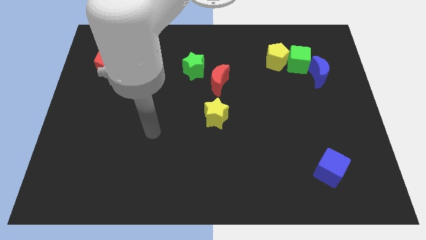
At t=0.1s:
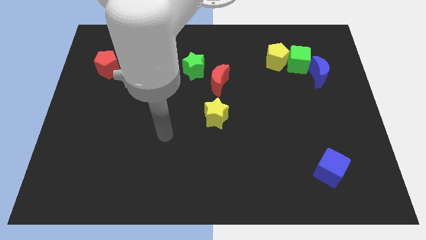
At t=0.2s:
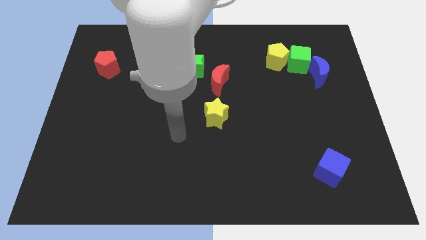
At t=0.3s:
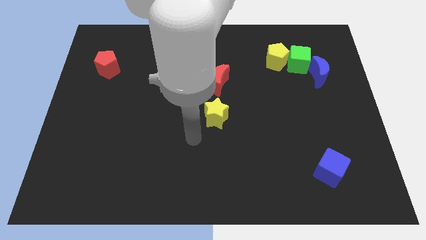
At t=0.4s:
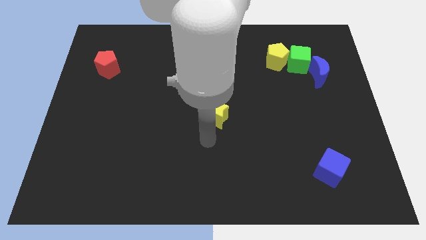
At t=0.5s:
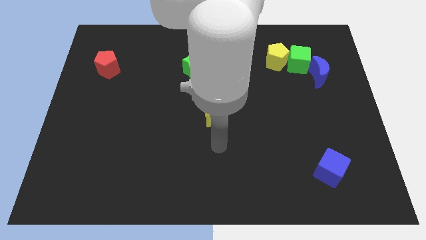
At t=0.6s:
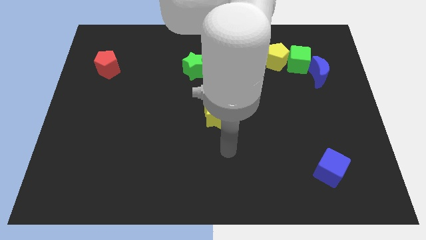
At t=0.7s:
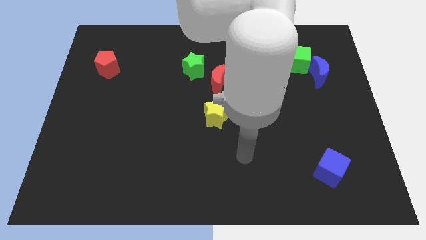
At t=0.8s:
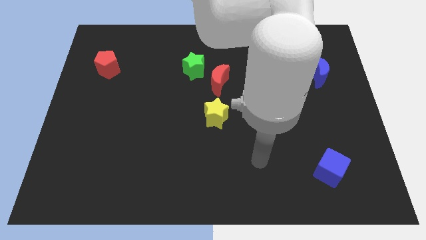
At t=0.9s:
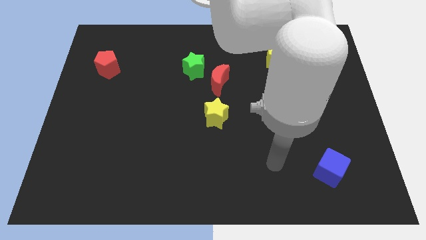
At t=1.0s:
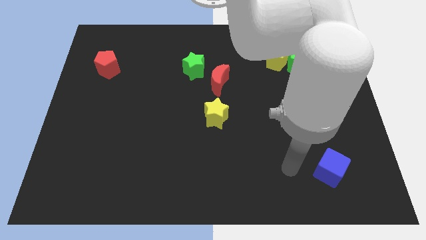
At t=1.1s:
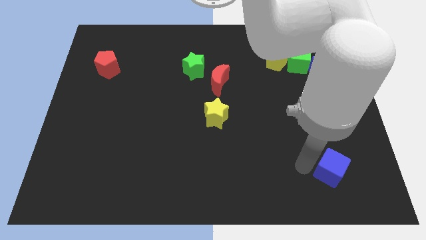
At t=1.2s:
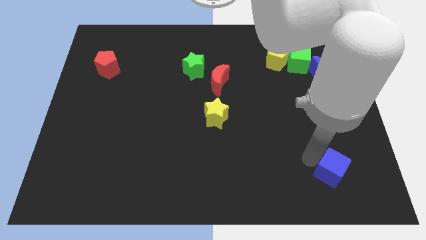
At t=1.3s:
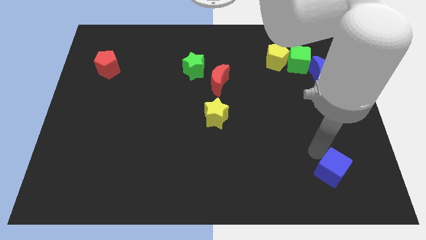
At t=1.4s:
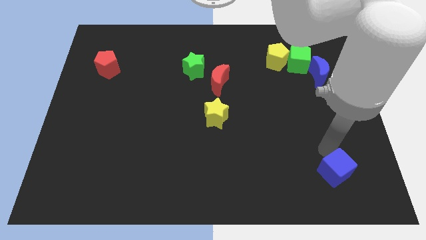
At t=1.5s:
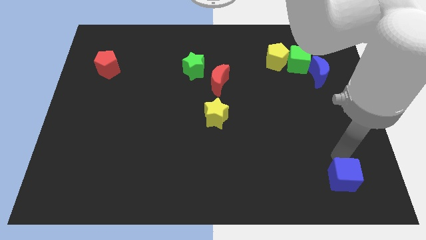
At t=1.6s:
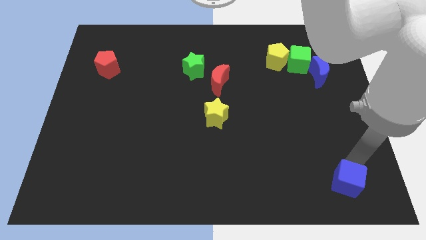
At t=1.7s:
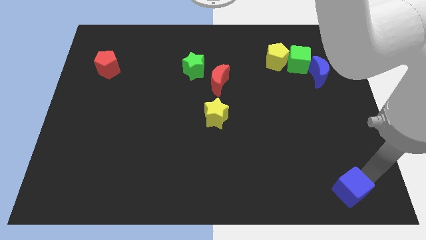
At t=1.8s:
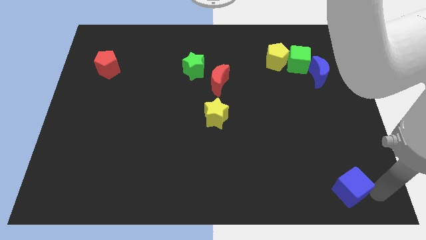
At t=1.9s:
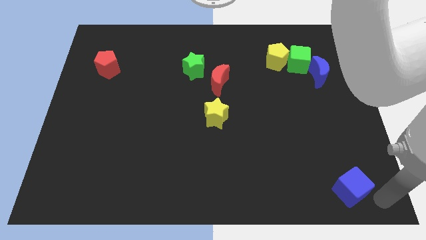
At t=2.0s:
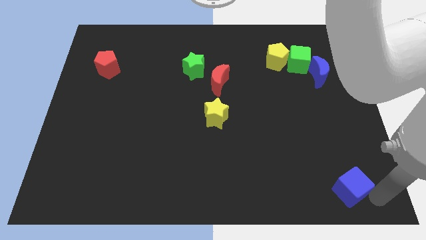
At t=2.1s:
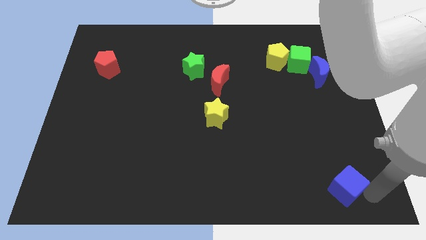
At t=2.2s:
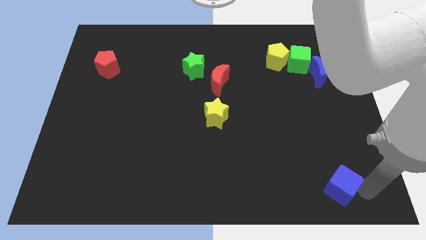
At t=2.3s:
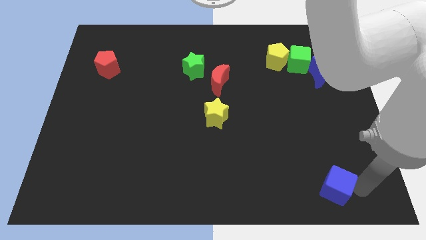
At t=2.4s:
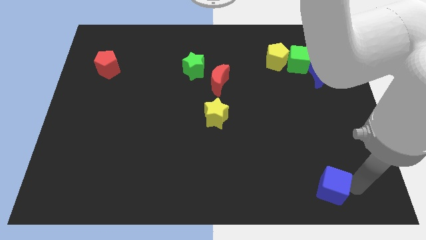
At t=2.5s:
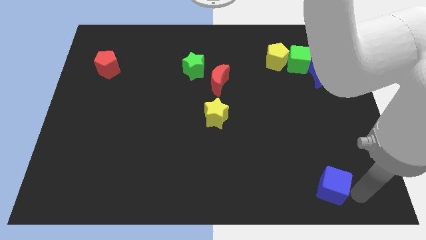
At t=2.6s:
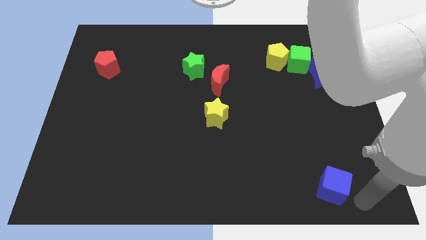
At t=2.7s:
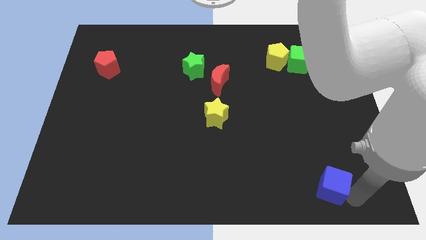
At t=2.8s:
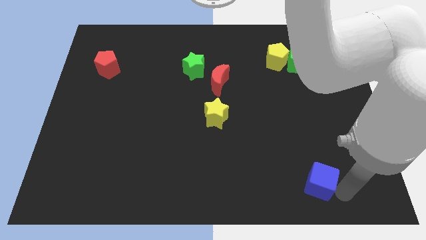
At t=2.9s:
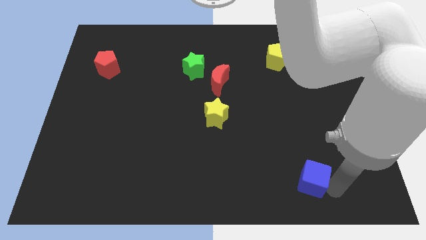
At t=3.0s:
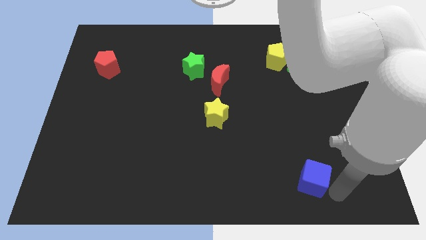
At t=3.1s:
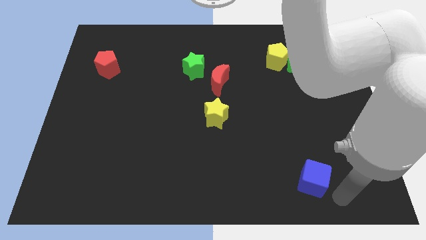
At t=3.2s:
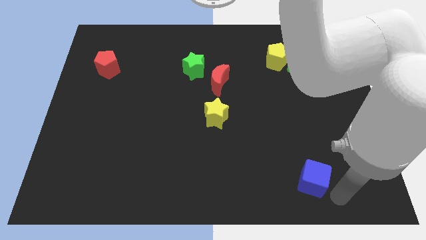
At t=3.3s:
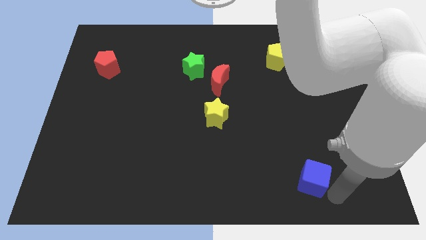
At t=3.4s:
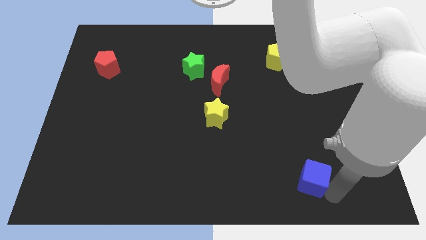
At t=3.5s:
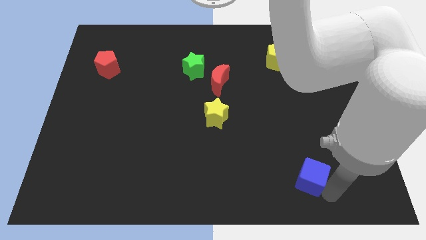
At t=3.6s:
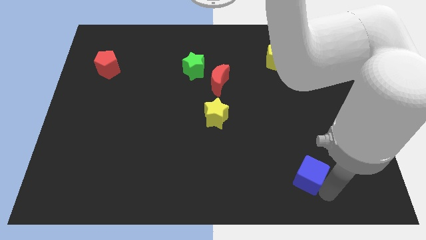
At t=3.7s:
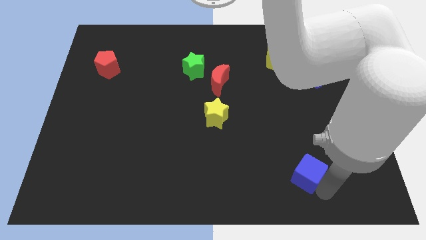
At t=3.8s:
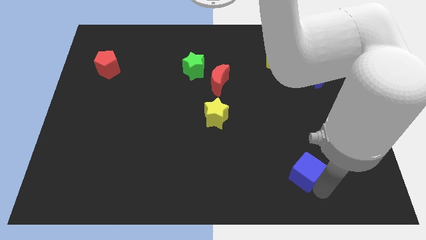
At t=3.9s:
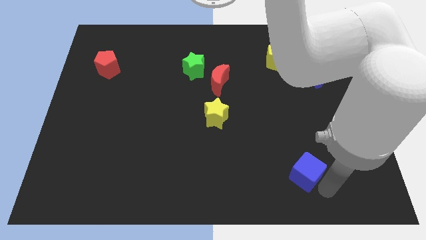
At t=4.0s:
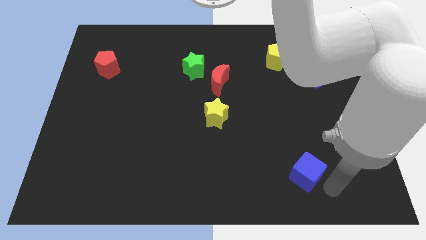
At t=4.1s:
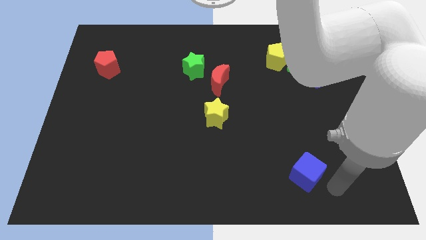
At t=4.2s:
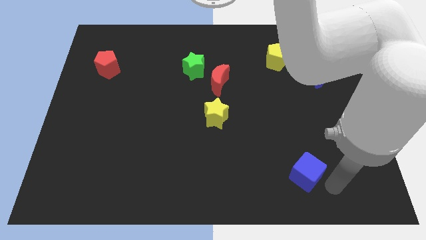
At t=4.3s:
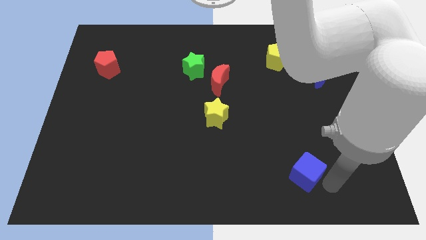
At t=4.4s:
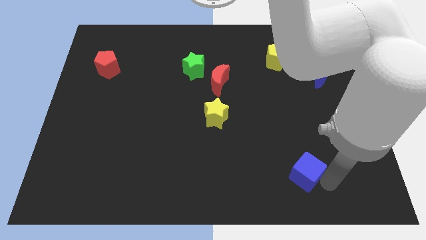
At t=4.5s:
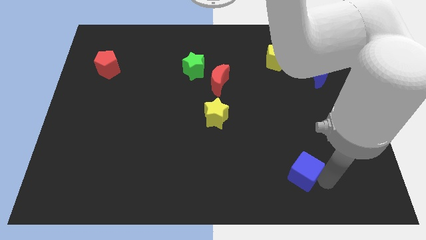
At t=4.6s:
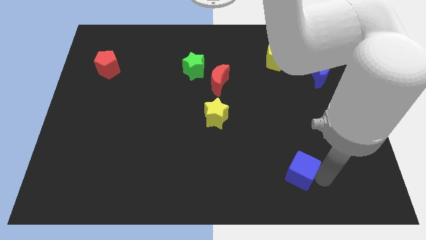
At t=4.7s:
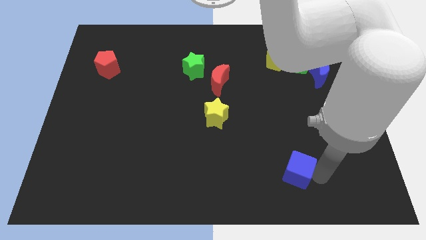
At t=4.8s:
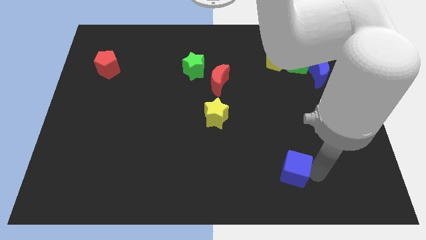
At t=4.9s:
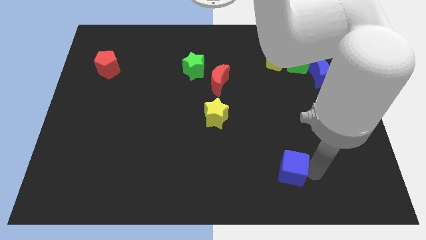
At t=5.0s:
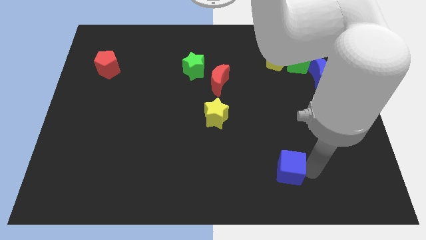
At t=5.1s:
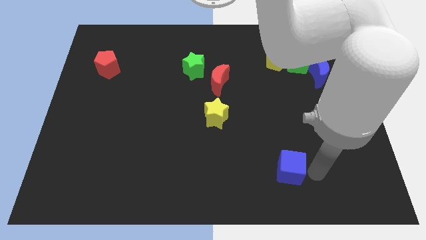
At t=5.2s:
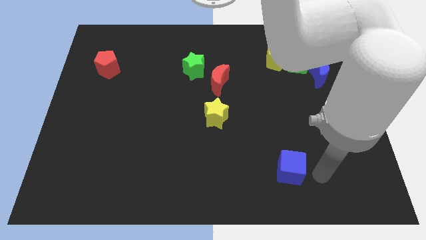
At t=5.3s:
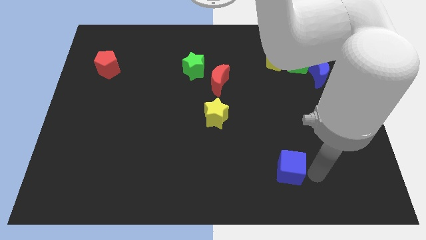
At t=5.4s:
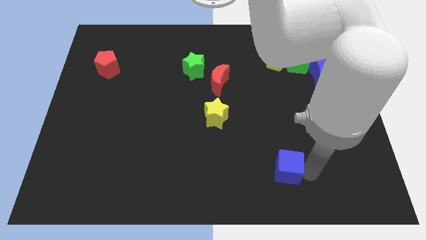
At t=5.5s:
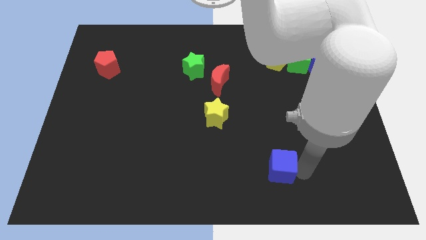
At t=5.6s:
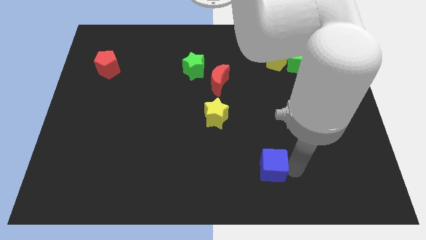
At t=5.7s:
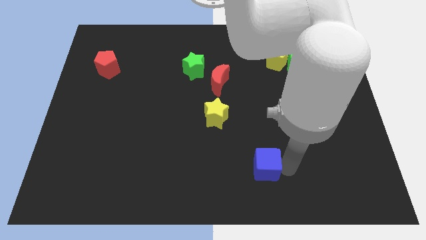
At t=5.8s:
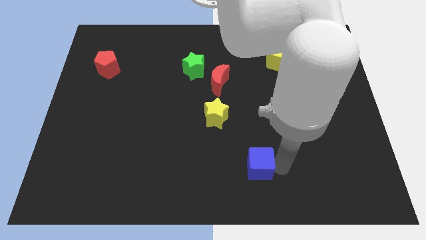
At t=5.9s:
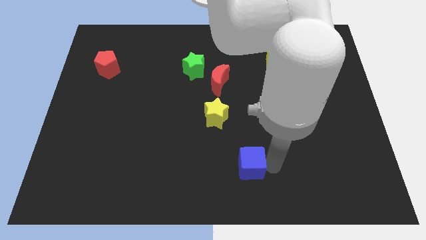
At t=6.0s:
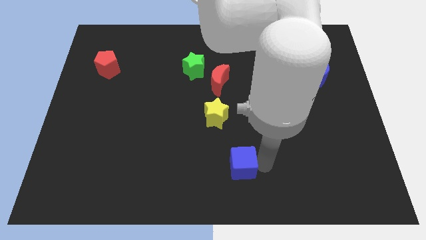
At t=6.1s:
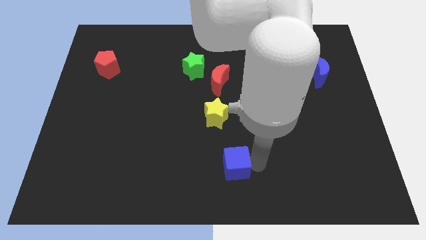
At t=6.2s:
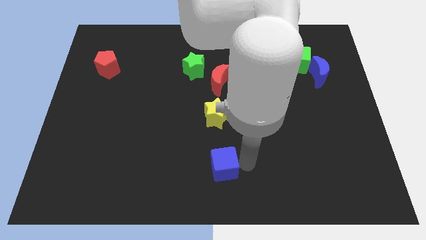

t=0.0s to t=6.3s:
move the blue cube to the left

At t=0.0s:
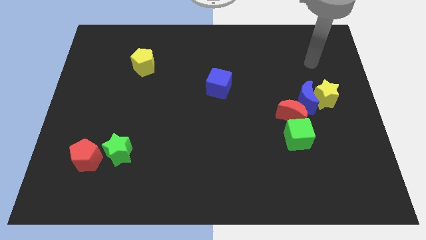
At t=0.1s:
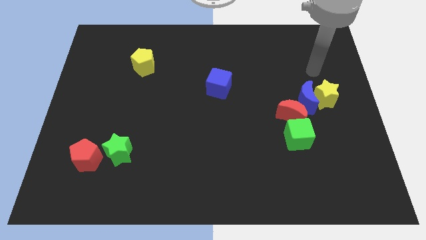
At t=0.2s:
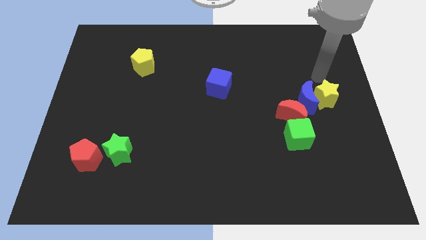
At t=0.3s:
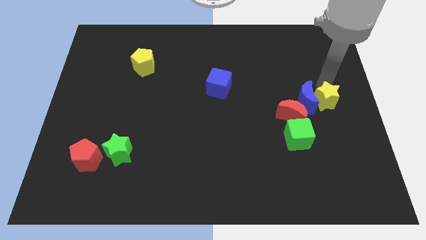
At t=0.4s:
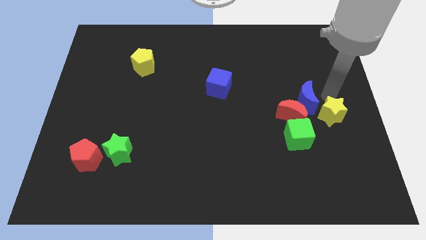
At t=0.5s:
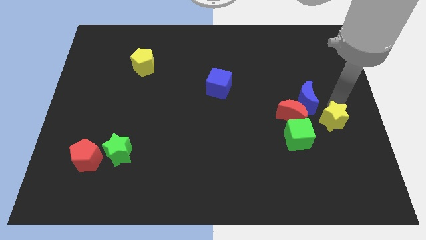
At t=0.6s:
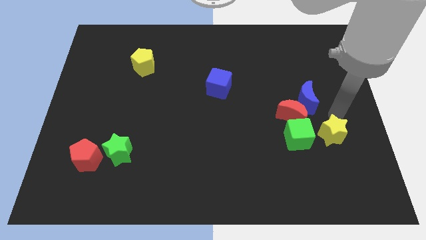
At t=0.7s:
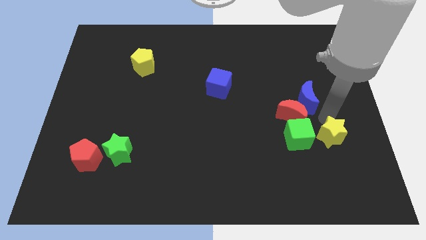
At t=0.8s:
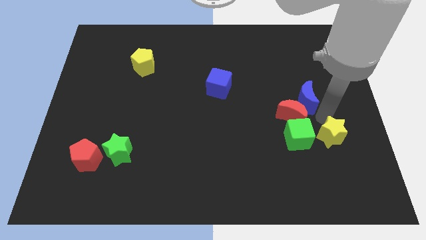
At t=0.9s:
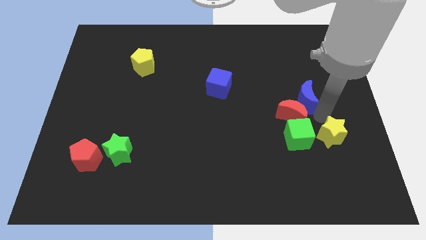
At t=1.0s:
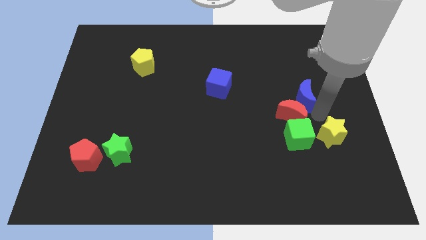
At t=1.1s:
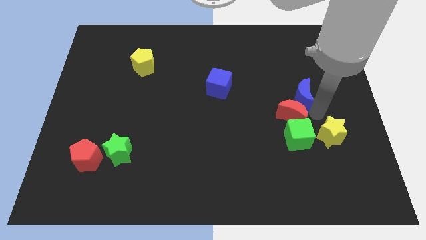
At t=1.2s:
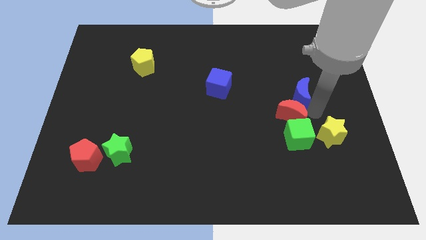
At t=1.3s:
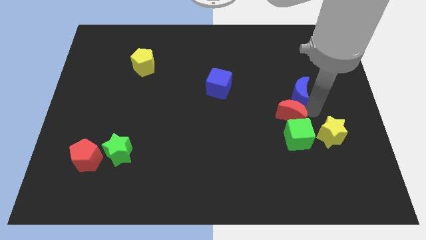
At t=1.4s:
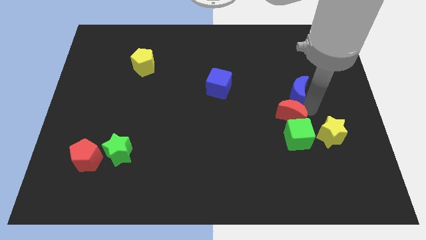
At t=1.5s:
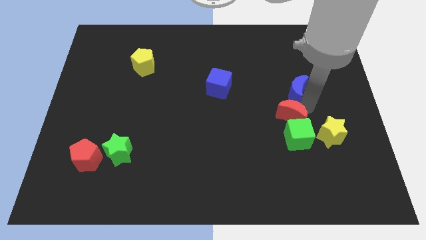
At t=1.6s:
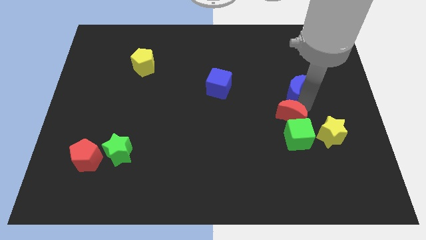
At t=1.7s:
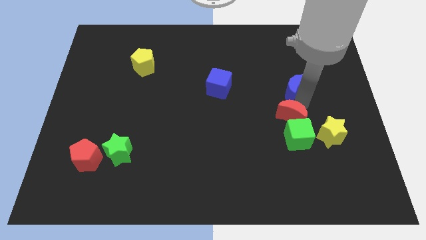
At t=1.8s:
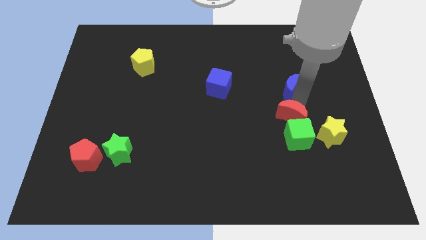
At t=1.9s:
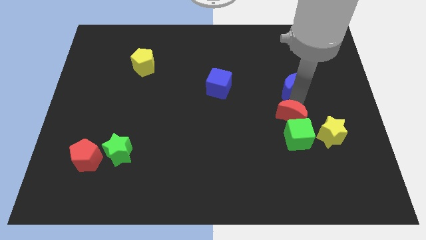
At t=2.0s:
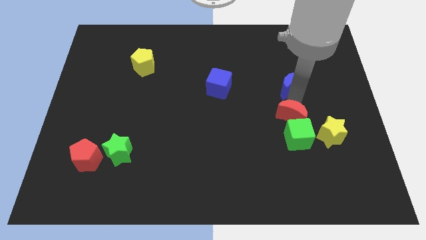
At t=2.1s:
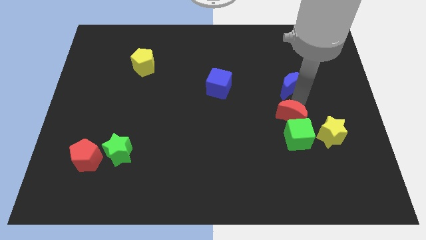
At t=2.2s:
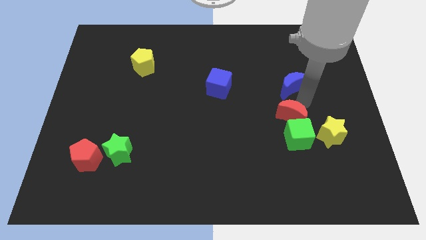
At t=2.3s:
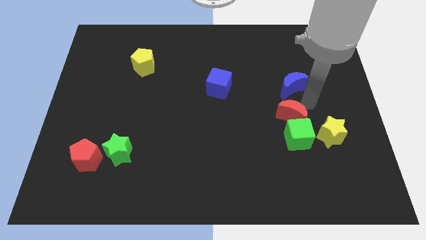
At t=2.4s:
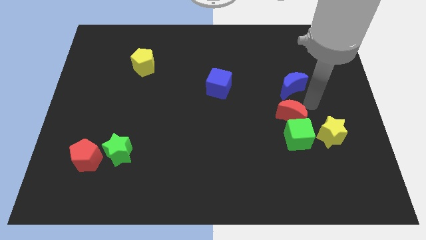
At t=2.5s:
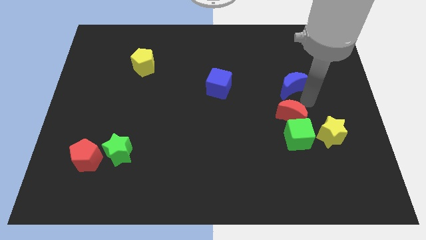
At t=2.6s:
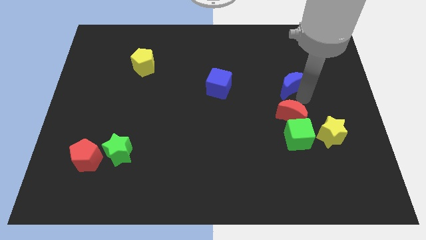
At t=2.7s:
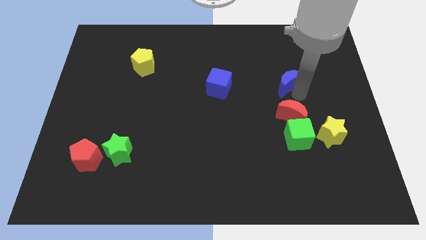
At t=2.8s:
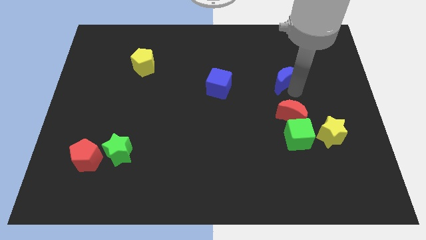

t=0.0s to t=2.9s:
slightly move the blue moon up and to the left diagonally
